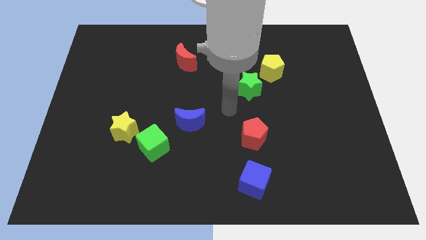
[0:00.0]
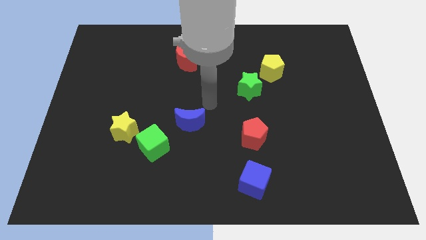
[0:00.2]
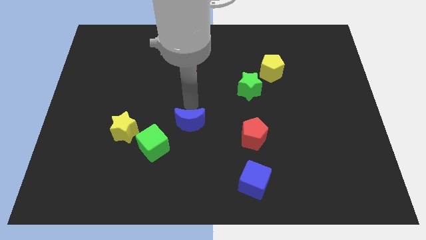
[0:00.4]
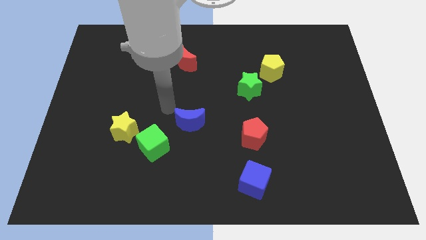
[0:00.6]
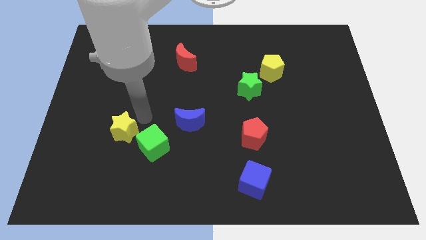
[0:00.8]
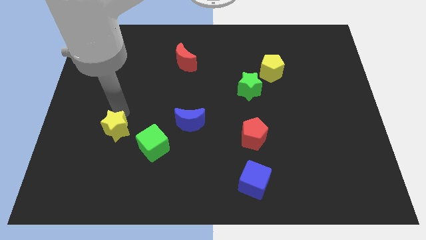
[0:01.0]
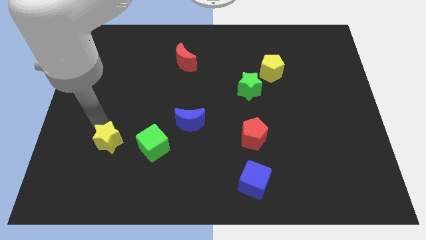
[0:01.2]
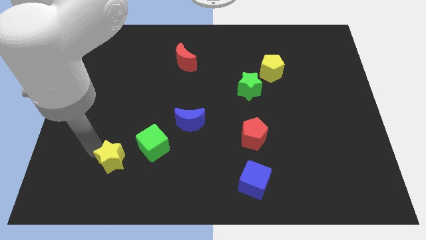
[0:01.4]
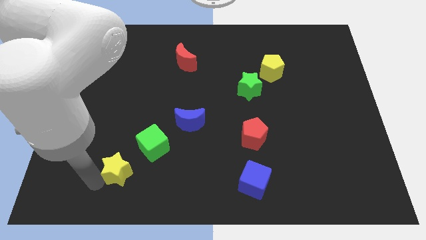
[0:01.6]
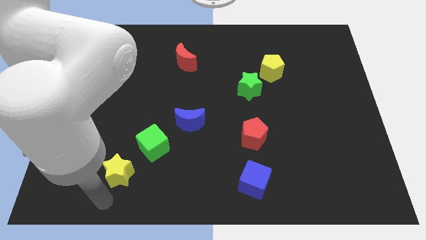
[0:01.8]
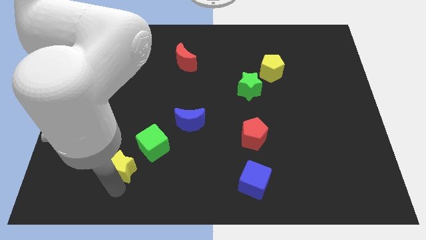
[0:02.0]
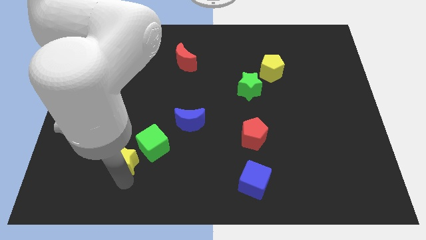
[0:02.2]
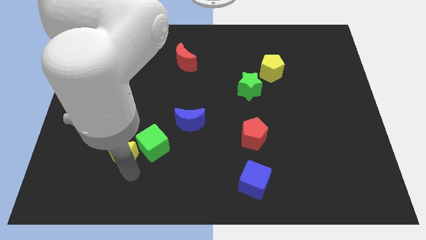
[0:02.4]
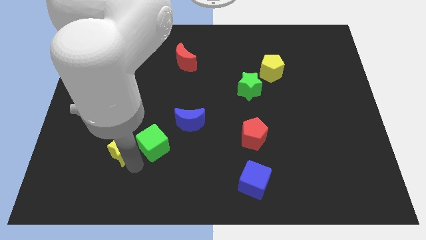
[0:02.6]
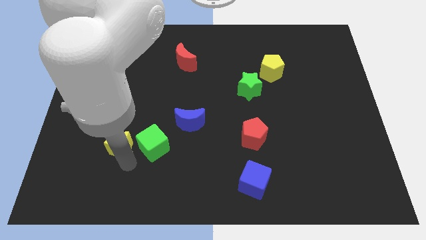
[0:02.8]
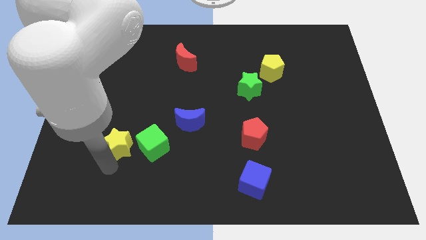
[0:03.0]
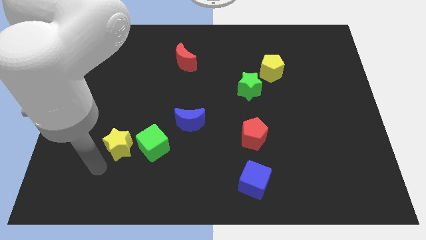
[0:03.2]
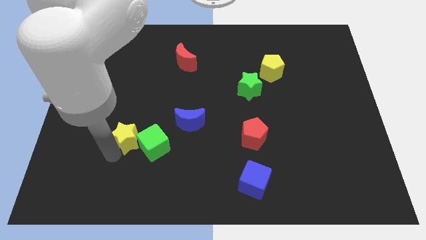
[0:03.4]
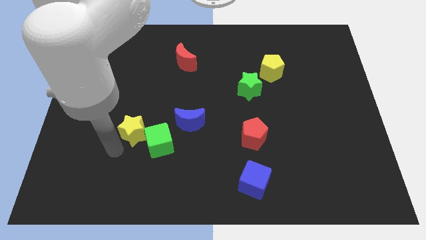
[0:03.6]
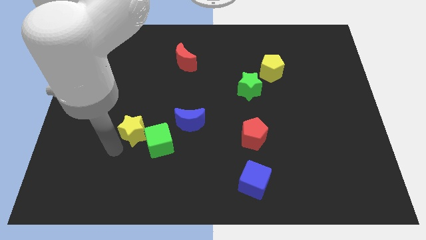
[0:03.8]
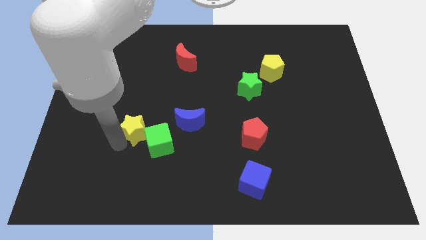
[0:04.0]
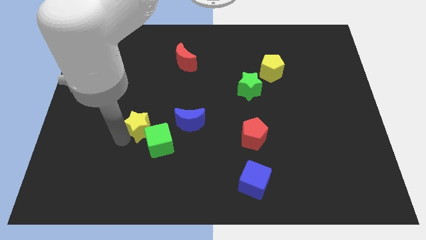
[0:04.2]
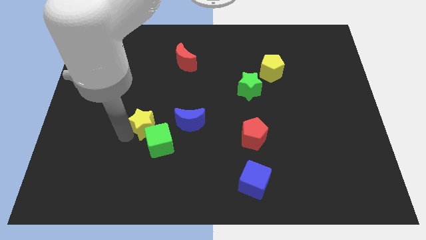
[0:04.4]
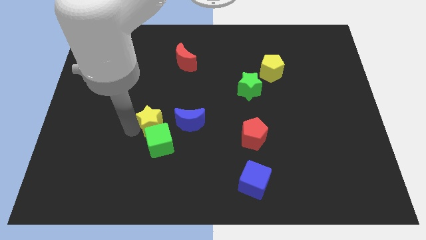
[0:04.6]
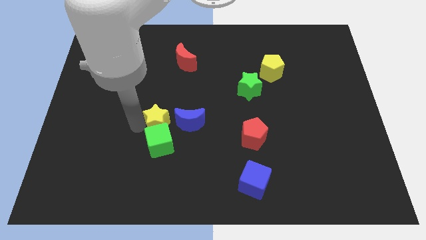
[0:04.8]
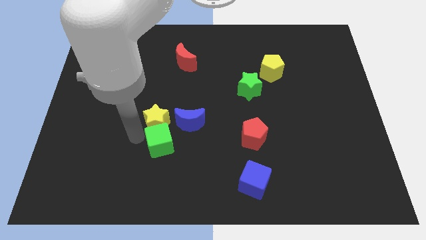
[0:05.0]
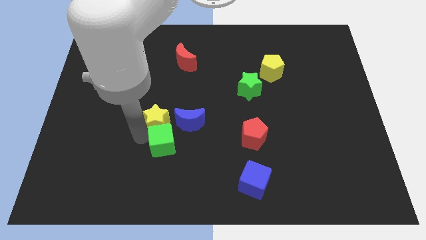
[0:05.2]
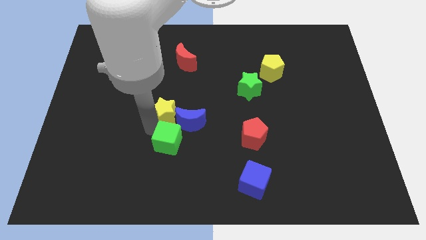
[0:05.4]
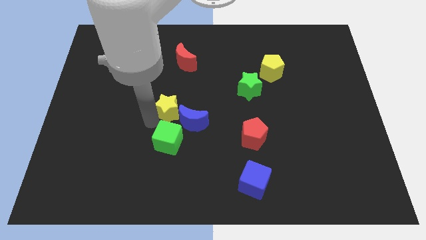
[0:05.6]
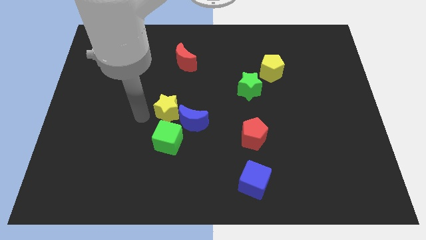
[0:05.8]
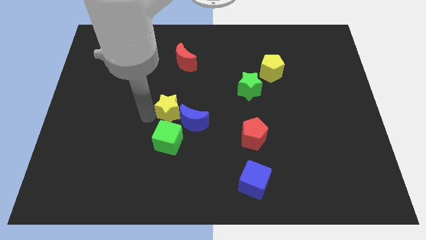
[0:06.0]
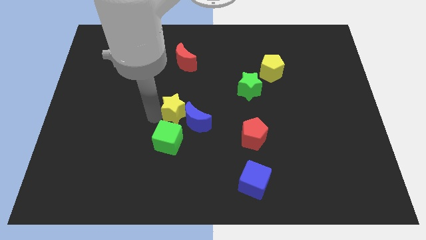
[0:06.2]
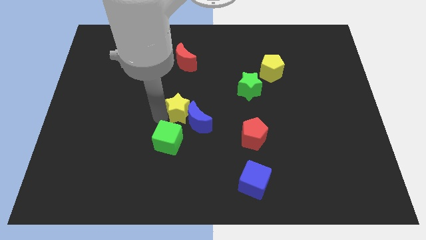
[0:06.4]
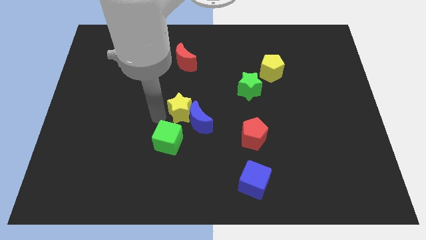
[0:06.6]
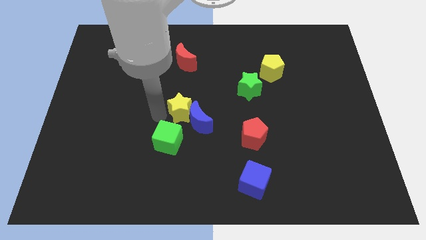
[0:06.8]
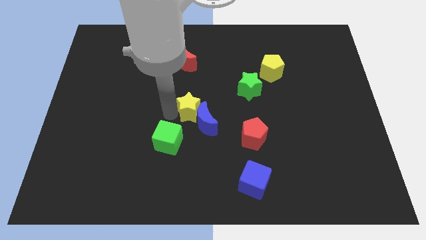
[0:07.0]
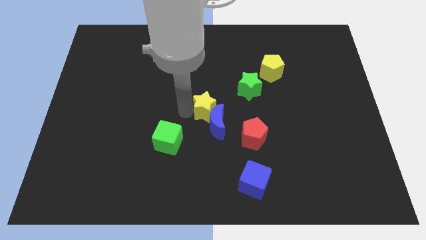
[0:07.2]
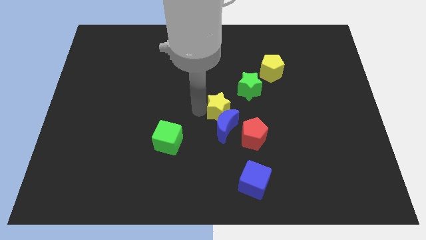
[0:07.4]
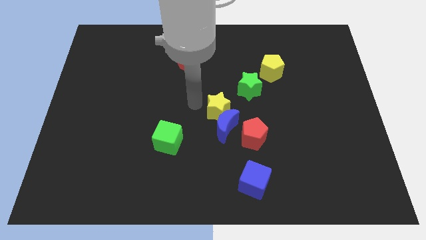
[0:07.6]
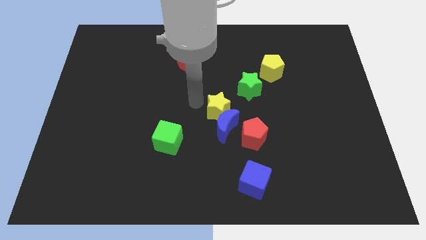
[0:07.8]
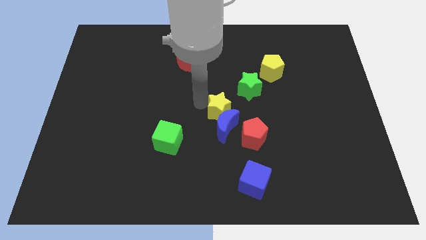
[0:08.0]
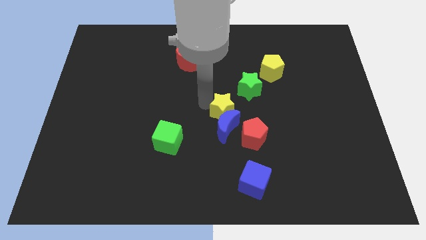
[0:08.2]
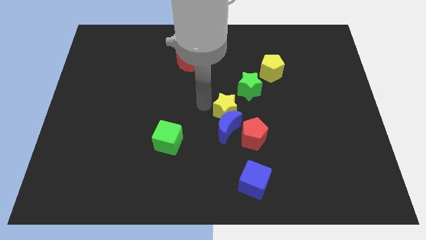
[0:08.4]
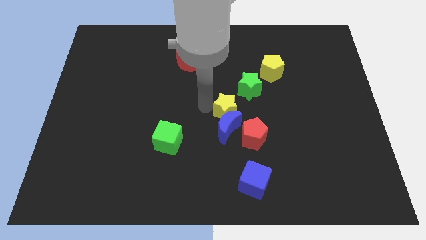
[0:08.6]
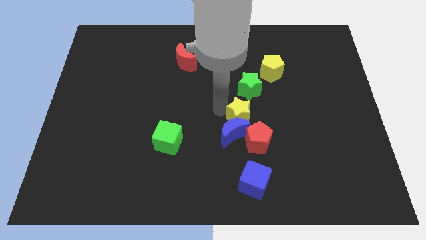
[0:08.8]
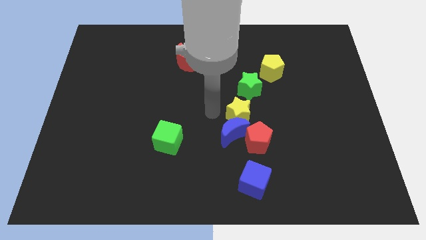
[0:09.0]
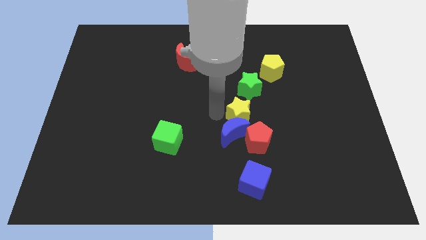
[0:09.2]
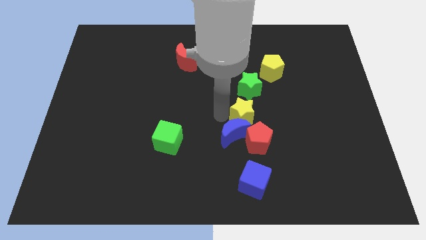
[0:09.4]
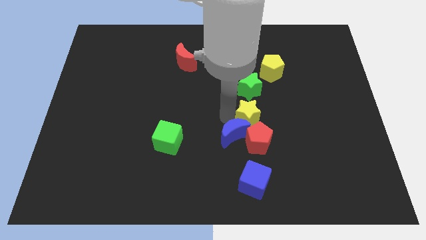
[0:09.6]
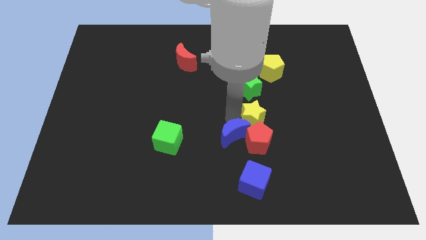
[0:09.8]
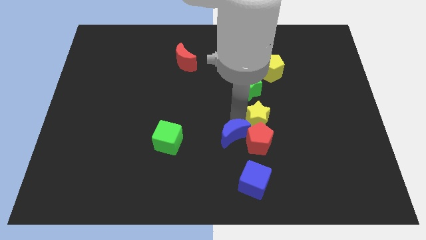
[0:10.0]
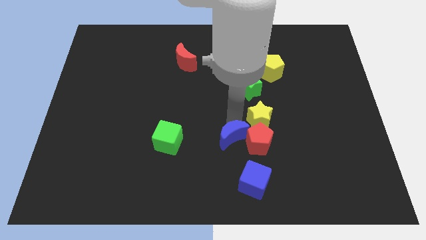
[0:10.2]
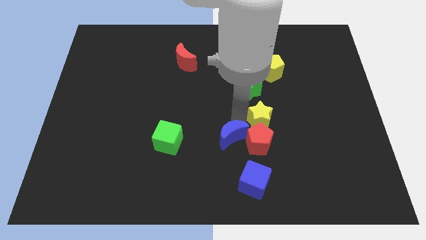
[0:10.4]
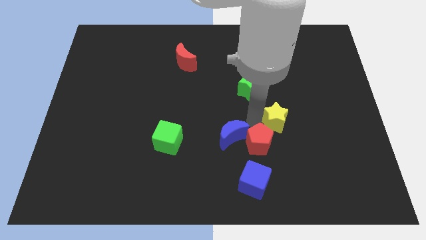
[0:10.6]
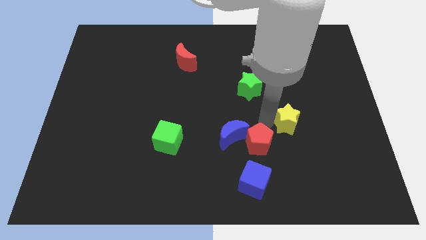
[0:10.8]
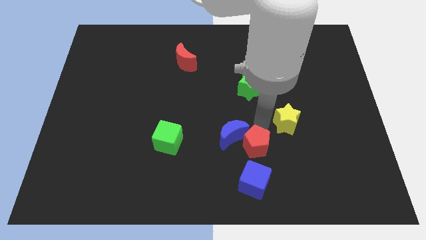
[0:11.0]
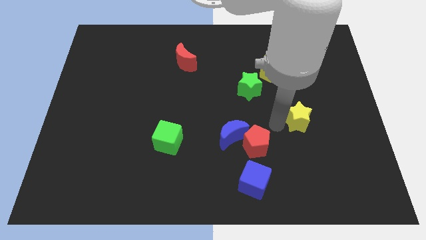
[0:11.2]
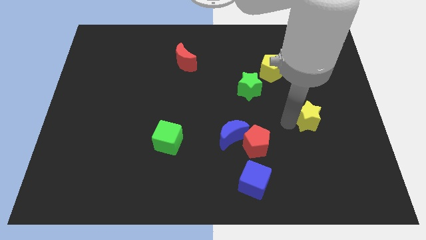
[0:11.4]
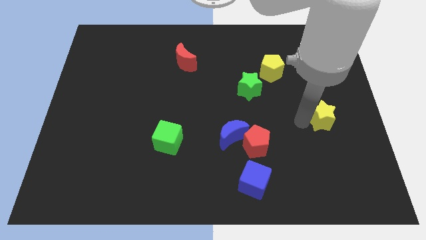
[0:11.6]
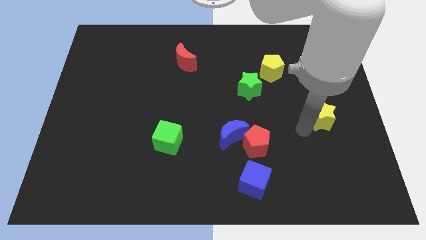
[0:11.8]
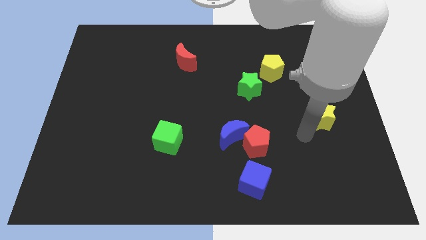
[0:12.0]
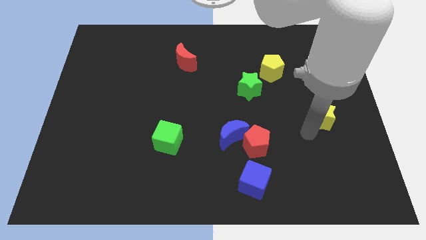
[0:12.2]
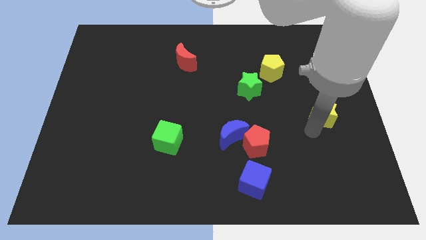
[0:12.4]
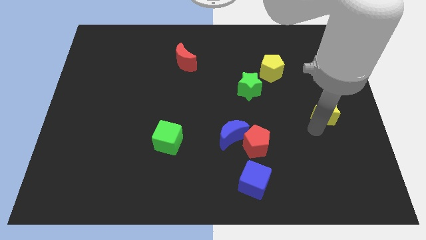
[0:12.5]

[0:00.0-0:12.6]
push the yellow star to the center right

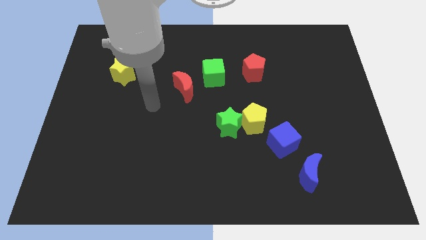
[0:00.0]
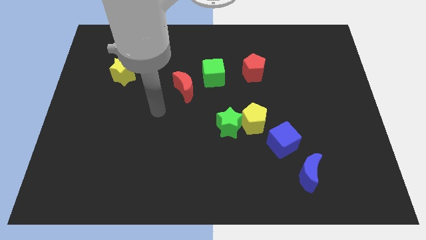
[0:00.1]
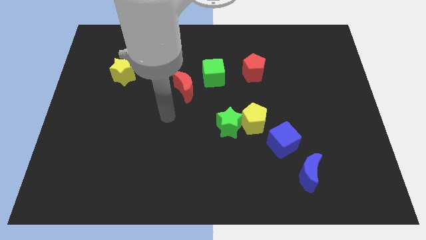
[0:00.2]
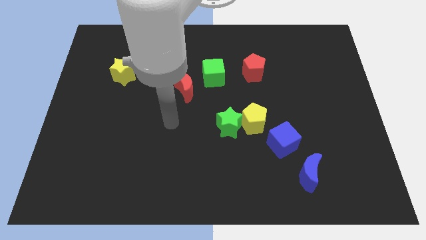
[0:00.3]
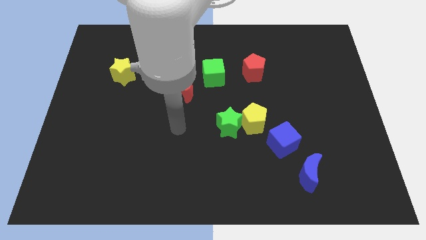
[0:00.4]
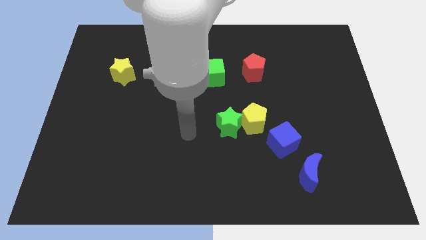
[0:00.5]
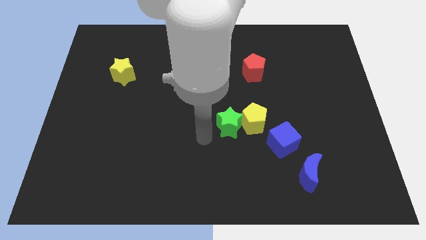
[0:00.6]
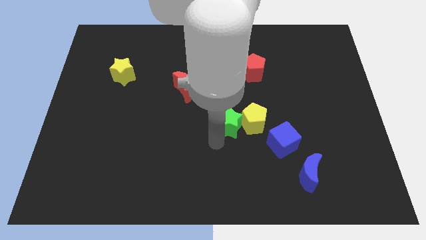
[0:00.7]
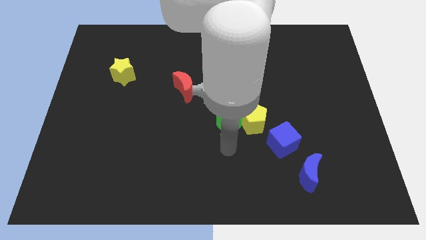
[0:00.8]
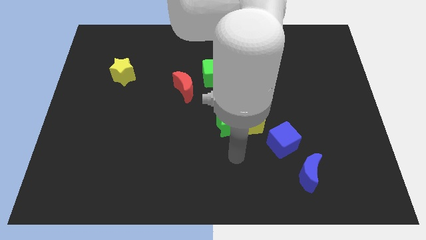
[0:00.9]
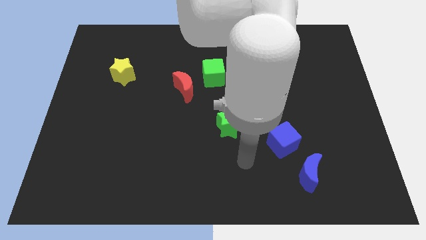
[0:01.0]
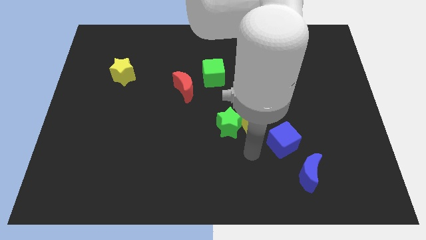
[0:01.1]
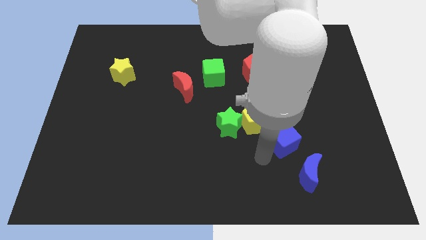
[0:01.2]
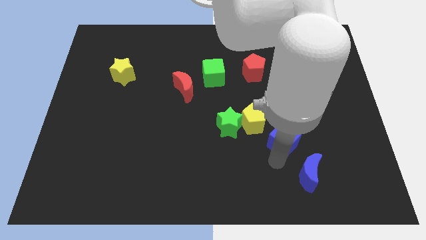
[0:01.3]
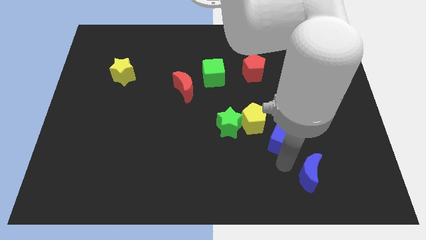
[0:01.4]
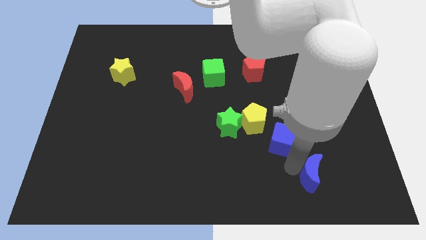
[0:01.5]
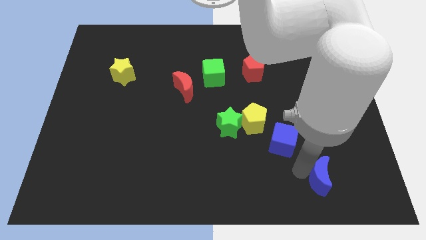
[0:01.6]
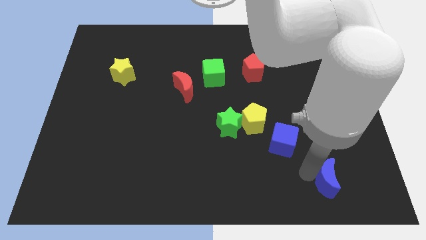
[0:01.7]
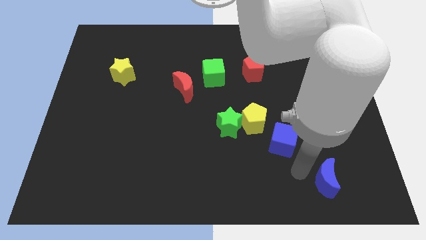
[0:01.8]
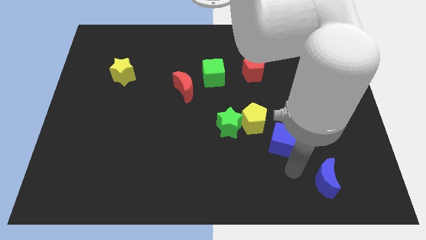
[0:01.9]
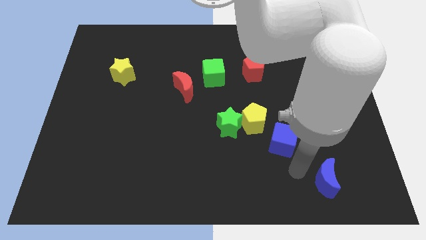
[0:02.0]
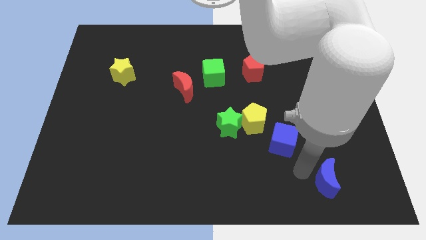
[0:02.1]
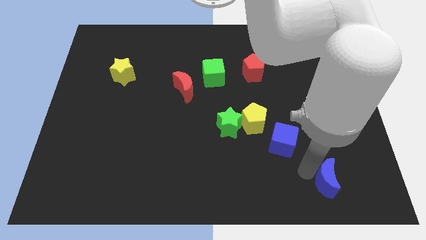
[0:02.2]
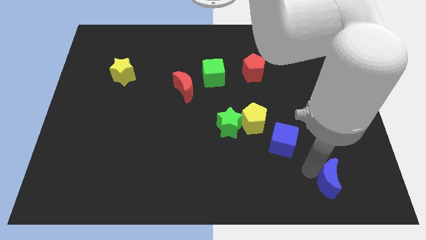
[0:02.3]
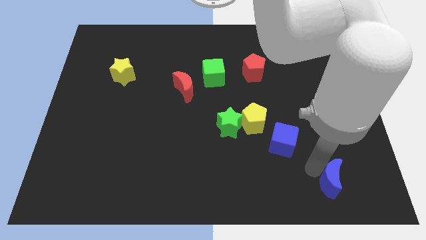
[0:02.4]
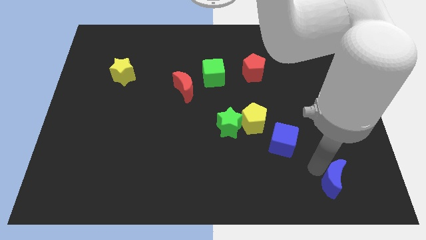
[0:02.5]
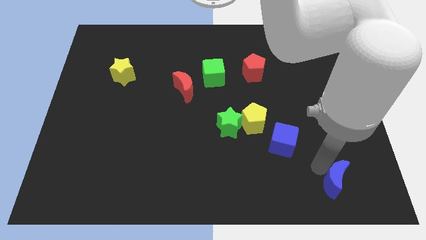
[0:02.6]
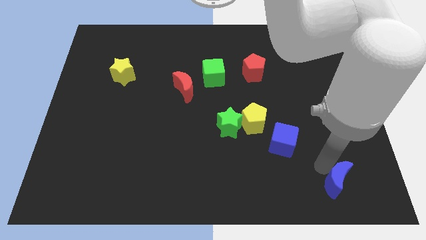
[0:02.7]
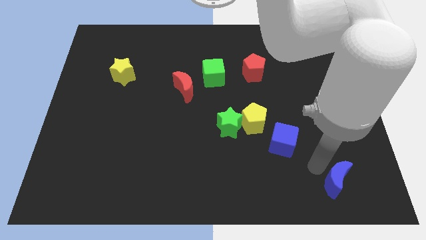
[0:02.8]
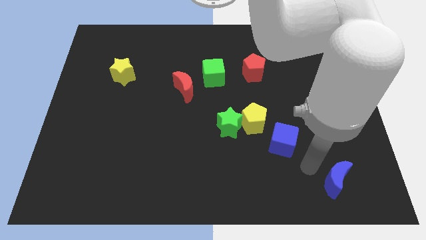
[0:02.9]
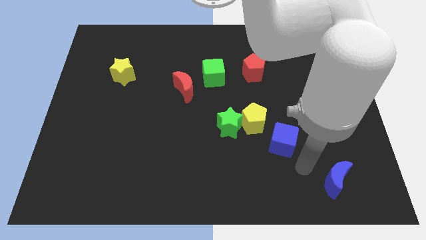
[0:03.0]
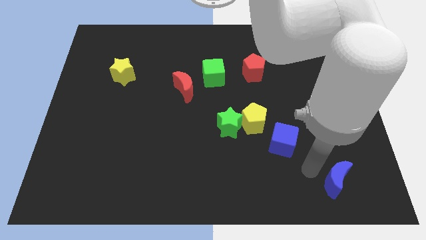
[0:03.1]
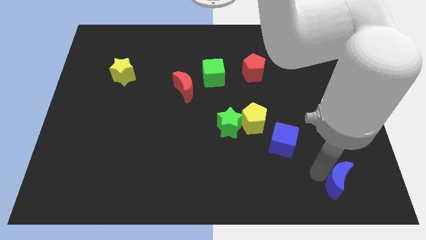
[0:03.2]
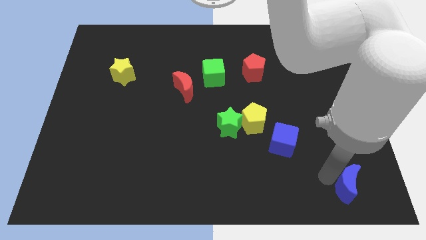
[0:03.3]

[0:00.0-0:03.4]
slide the blue moon to the bottom right of the board
